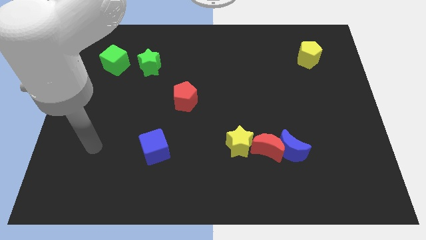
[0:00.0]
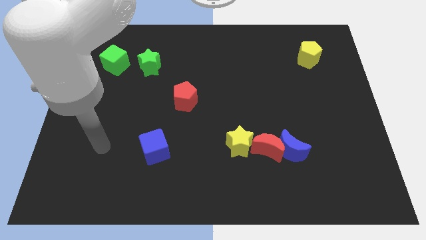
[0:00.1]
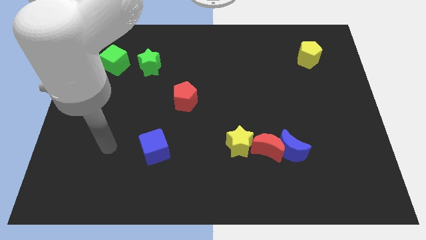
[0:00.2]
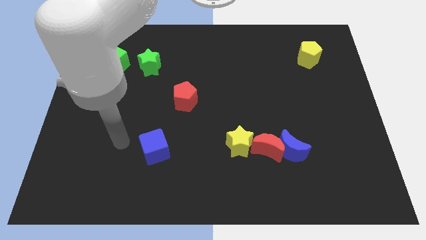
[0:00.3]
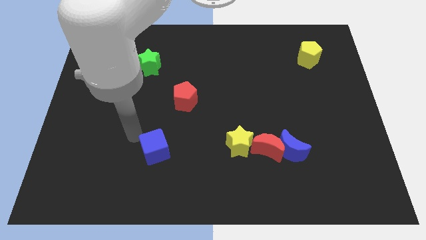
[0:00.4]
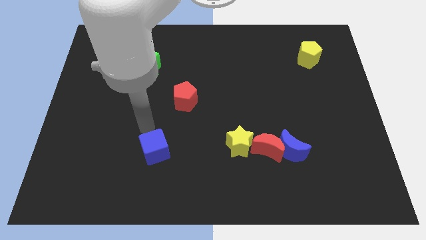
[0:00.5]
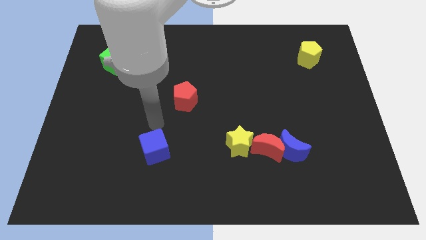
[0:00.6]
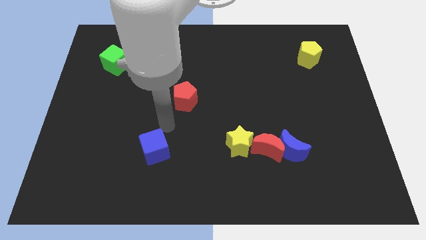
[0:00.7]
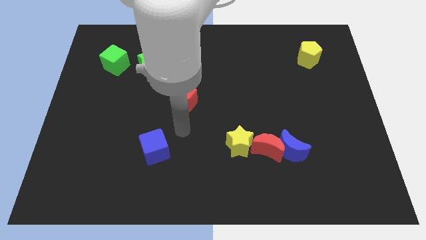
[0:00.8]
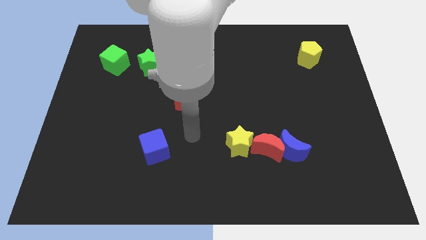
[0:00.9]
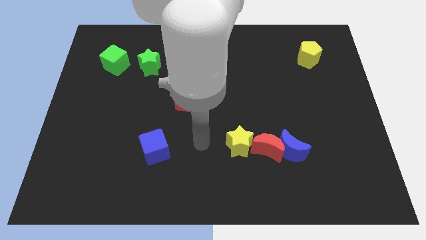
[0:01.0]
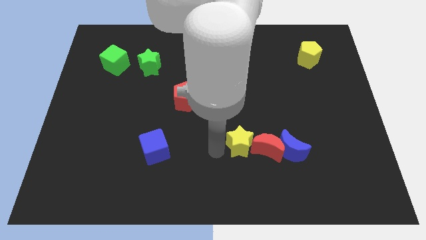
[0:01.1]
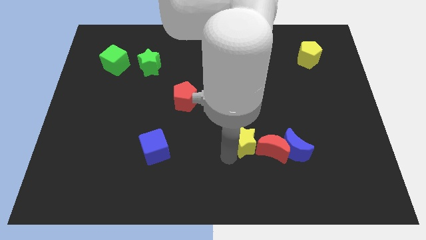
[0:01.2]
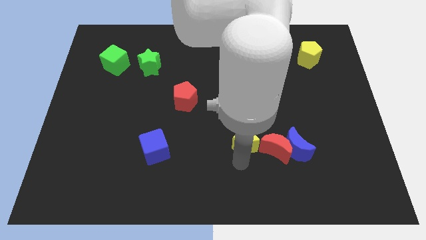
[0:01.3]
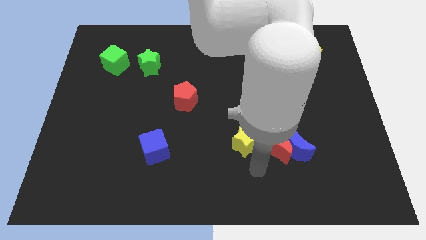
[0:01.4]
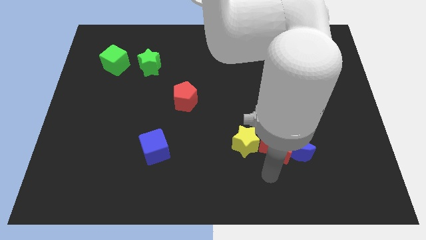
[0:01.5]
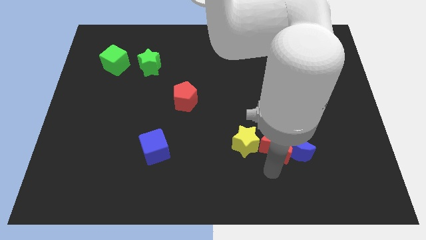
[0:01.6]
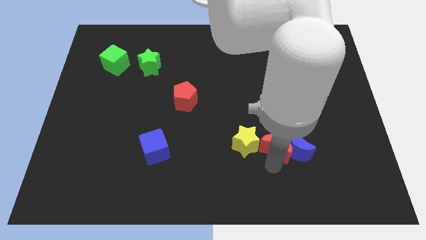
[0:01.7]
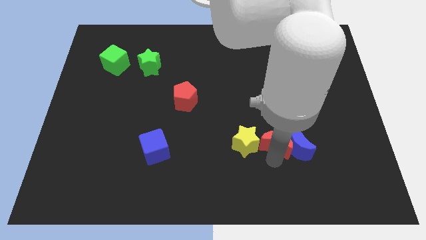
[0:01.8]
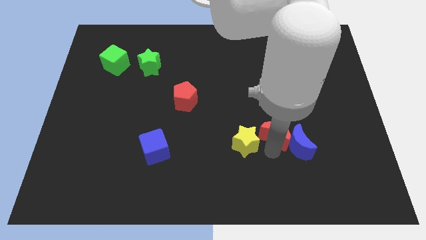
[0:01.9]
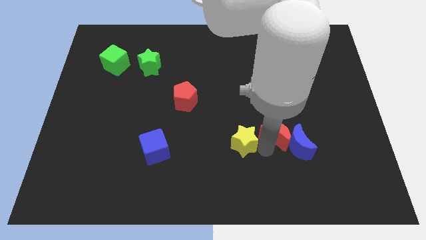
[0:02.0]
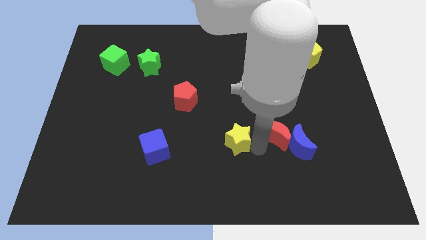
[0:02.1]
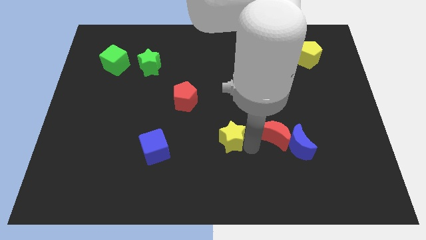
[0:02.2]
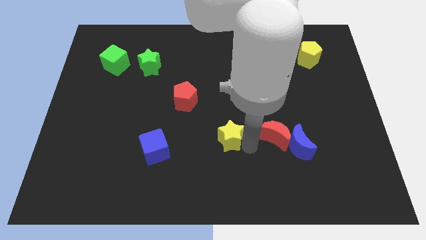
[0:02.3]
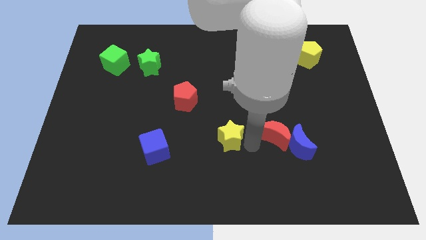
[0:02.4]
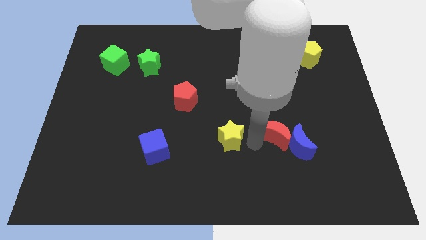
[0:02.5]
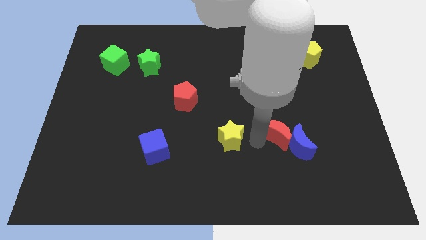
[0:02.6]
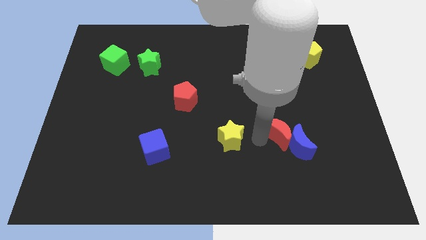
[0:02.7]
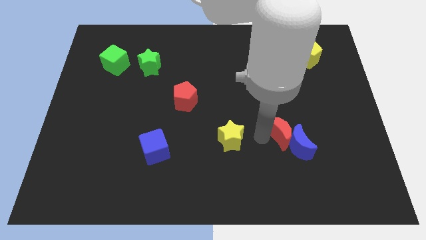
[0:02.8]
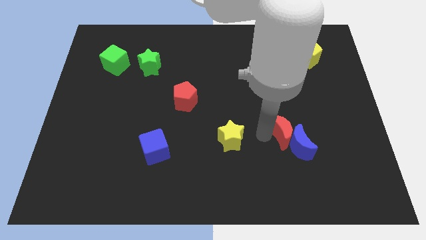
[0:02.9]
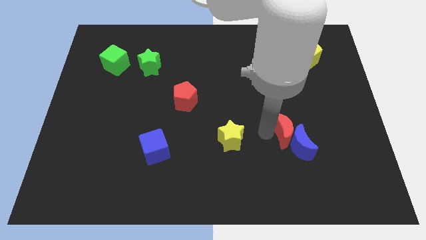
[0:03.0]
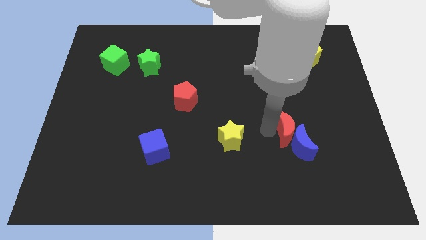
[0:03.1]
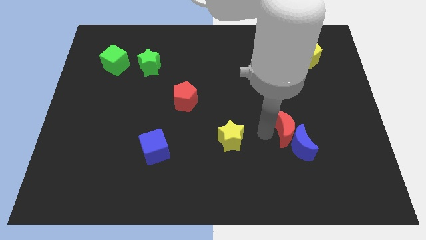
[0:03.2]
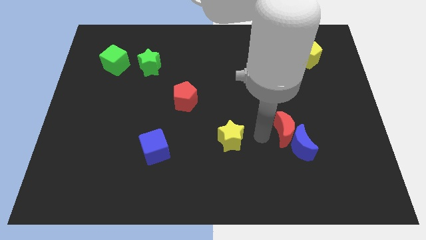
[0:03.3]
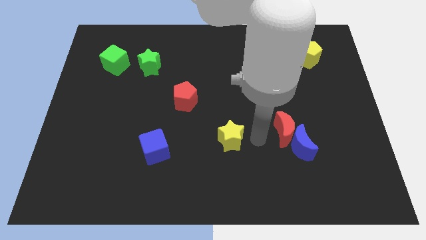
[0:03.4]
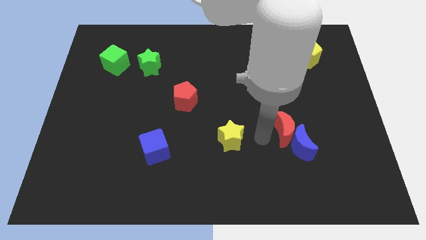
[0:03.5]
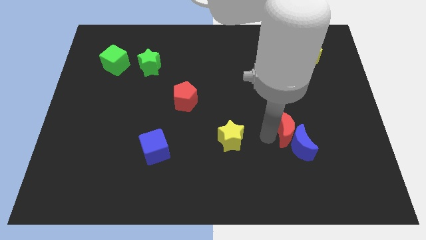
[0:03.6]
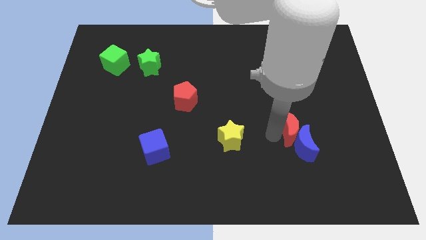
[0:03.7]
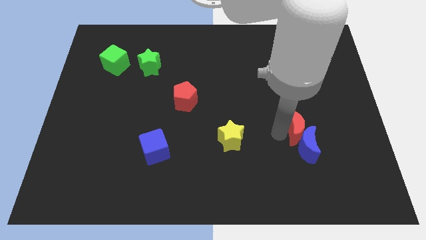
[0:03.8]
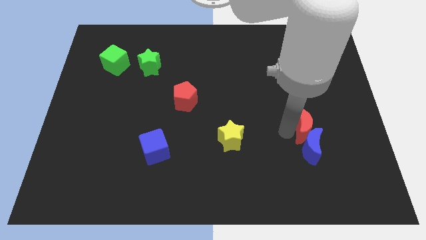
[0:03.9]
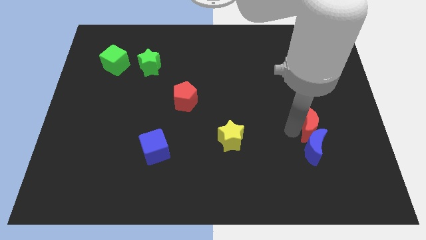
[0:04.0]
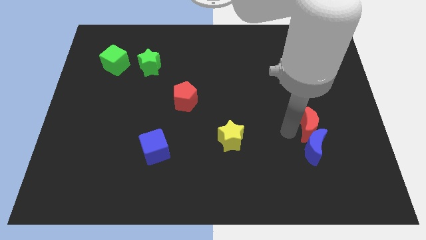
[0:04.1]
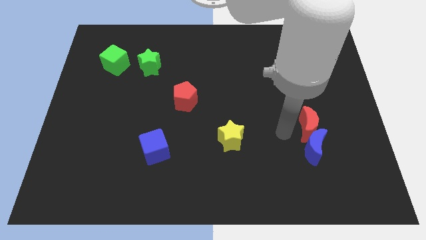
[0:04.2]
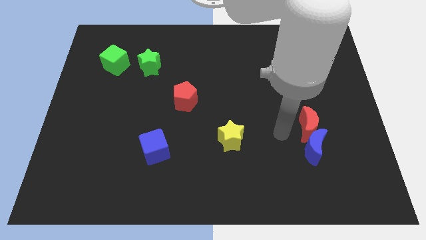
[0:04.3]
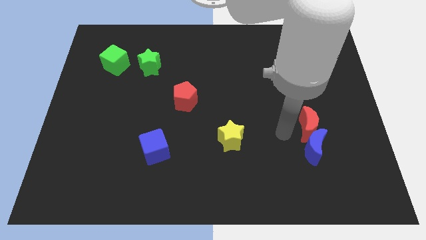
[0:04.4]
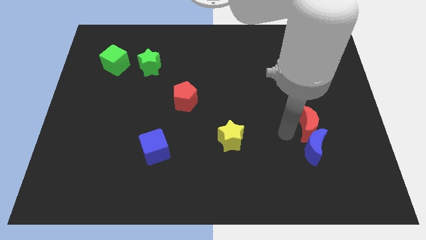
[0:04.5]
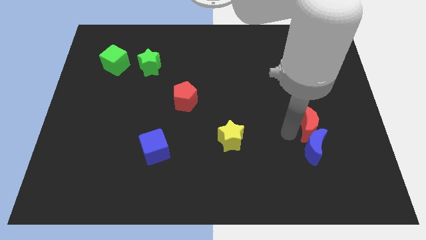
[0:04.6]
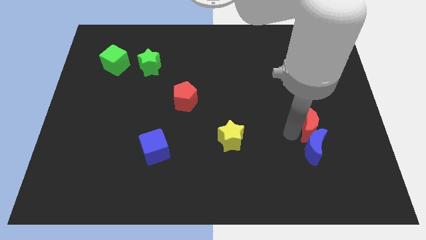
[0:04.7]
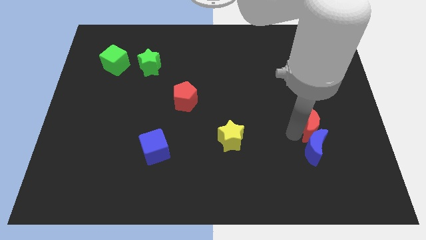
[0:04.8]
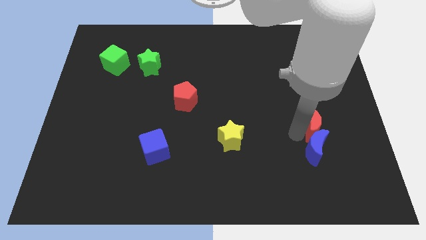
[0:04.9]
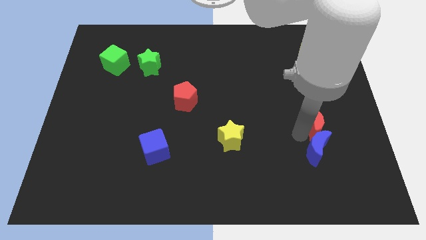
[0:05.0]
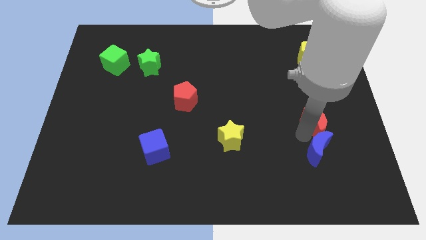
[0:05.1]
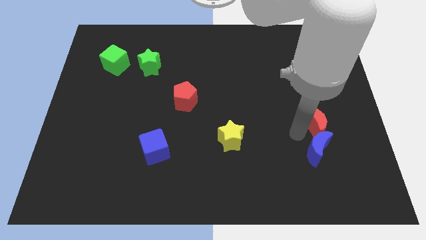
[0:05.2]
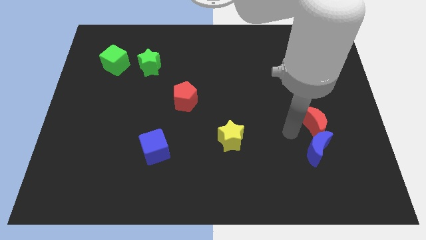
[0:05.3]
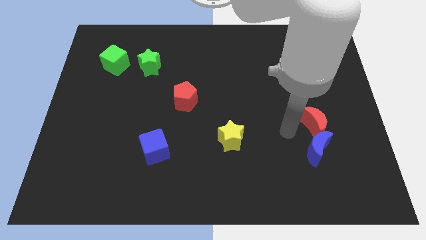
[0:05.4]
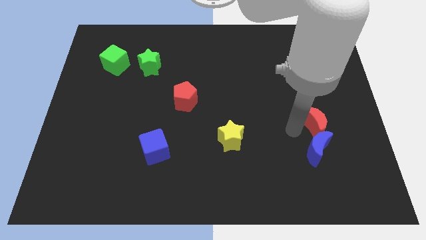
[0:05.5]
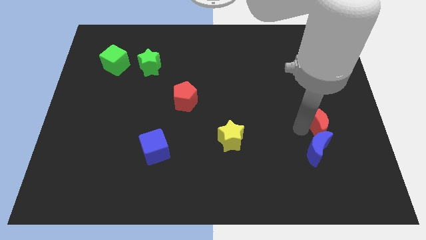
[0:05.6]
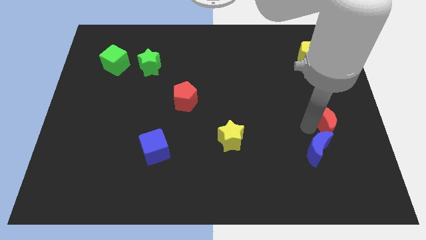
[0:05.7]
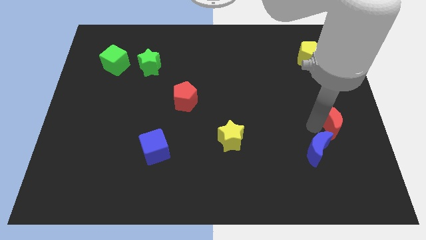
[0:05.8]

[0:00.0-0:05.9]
slide the red moon to the right side
